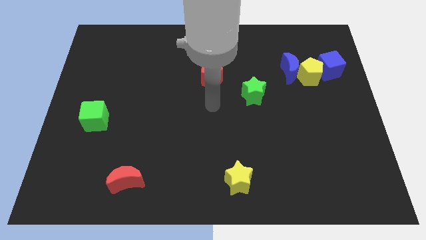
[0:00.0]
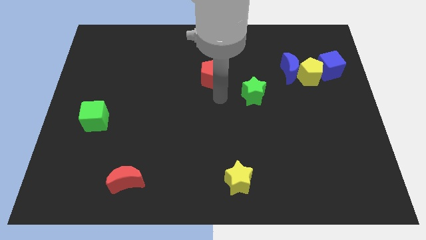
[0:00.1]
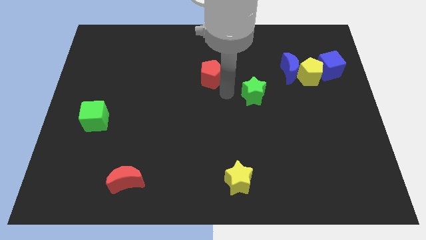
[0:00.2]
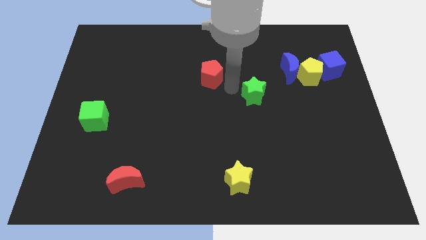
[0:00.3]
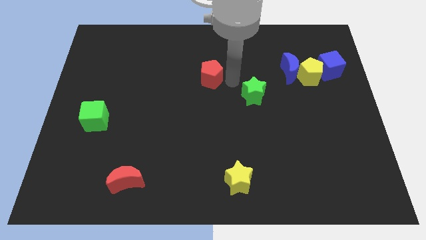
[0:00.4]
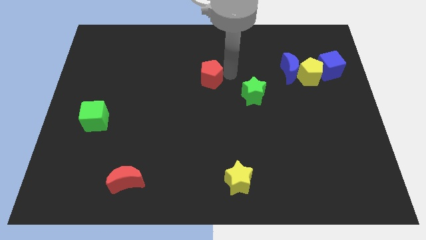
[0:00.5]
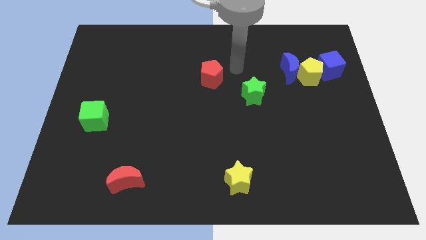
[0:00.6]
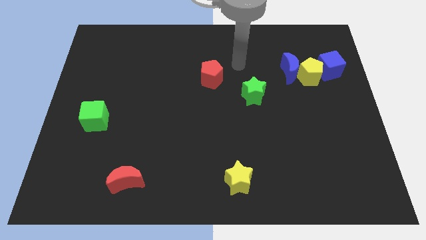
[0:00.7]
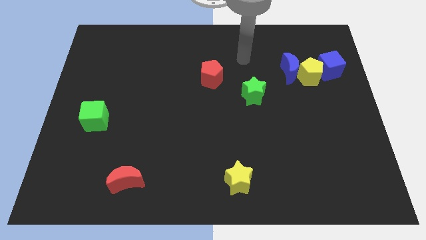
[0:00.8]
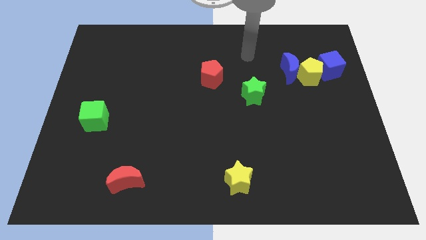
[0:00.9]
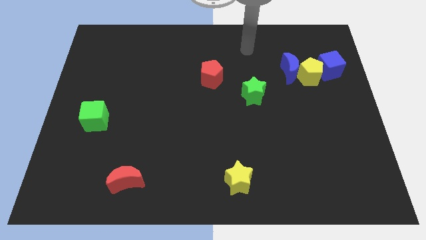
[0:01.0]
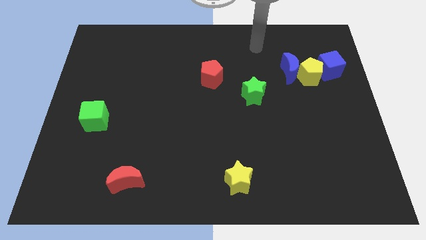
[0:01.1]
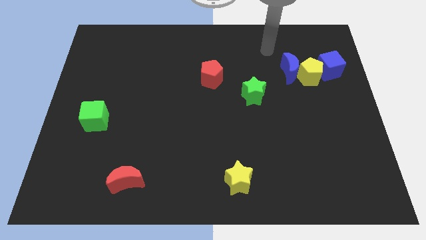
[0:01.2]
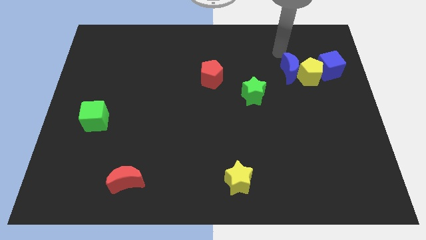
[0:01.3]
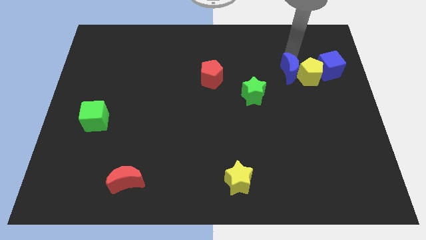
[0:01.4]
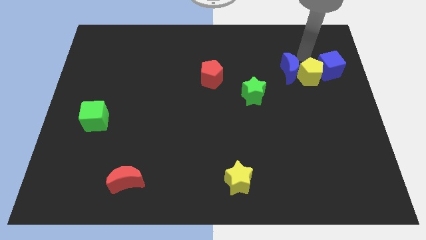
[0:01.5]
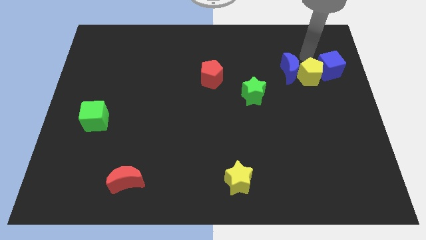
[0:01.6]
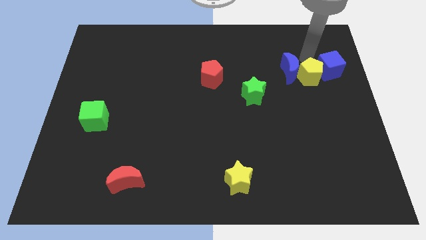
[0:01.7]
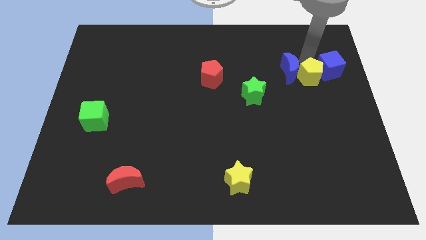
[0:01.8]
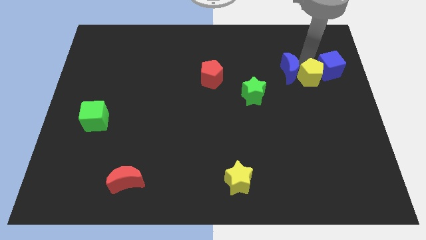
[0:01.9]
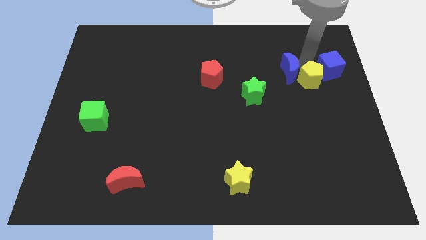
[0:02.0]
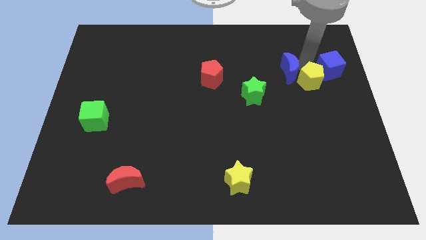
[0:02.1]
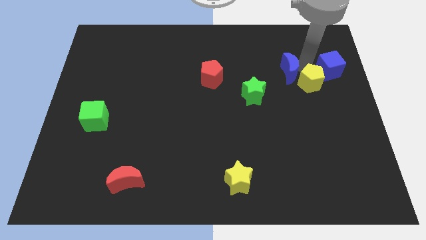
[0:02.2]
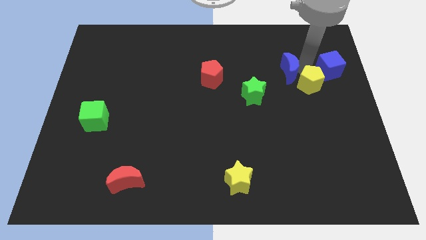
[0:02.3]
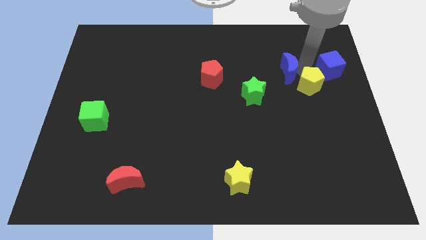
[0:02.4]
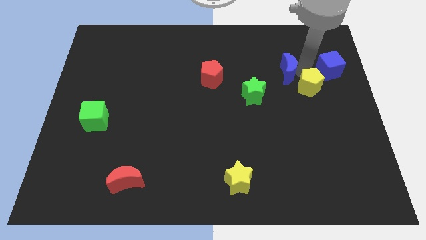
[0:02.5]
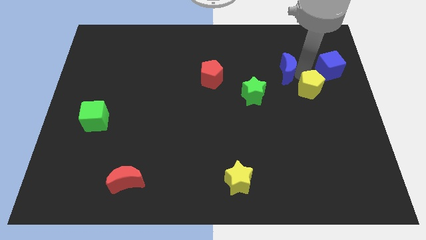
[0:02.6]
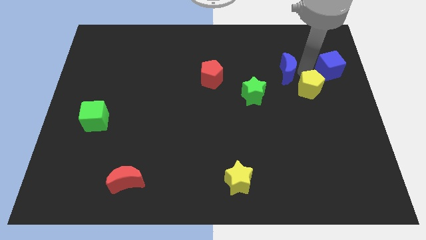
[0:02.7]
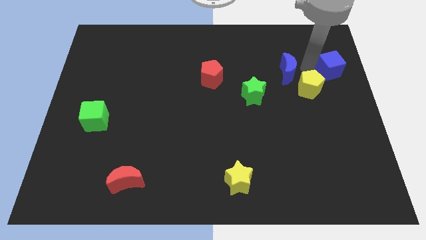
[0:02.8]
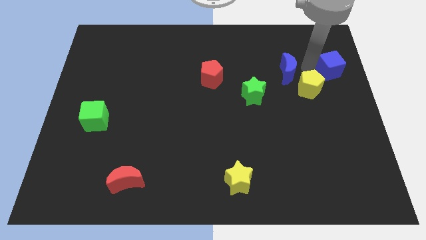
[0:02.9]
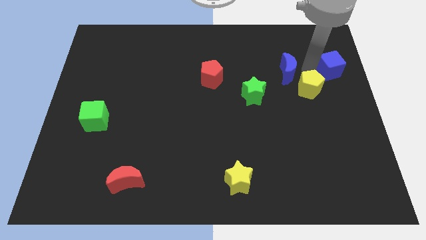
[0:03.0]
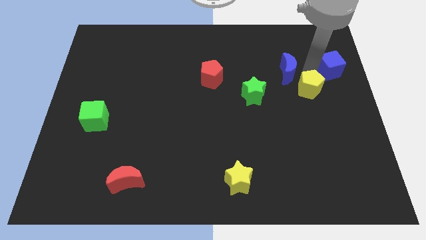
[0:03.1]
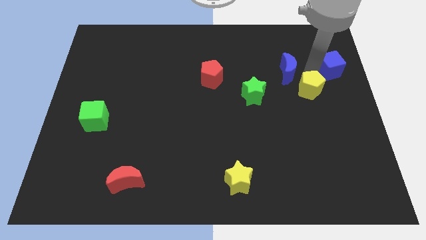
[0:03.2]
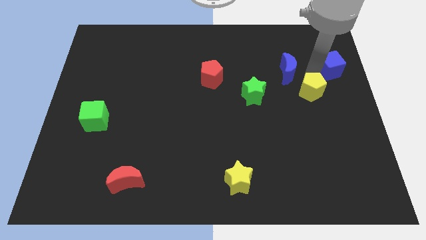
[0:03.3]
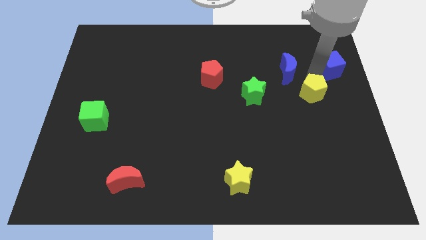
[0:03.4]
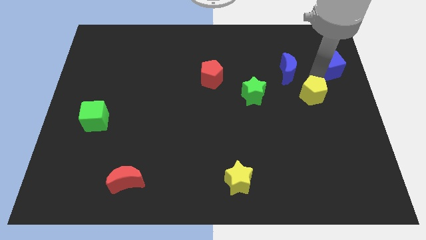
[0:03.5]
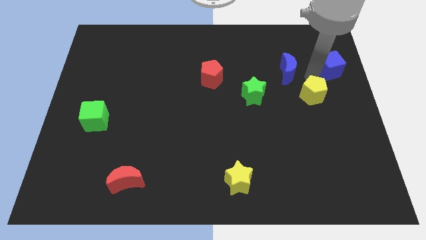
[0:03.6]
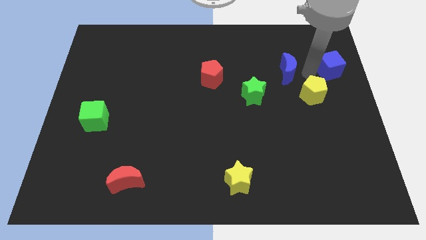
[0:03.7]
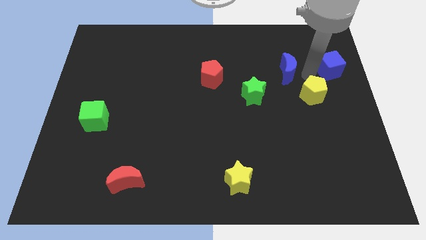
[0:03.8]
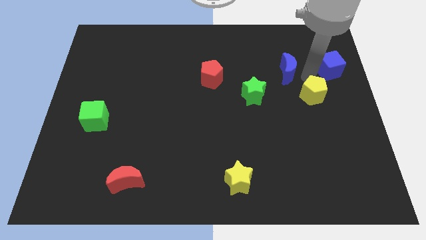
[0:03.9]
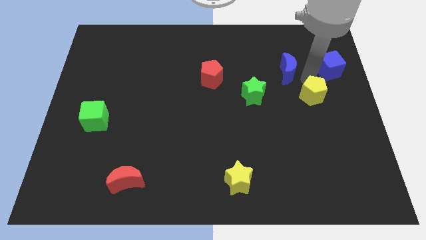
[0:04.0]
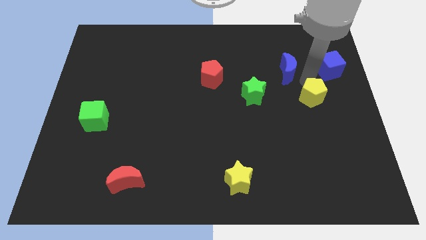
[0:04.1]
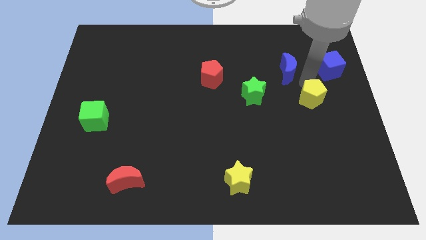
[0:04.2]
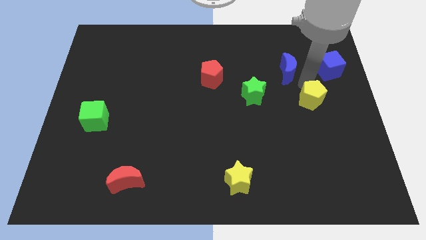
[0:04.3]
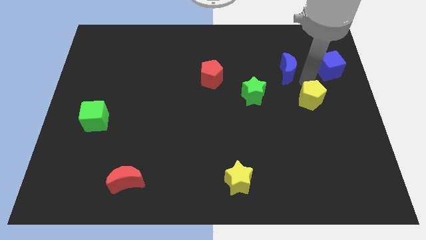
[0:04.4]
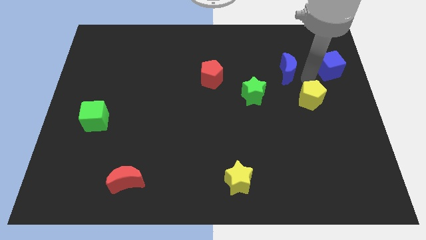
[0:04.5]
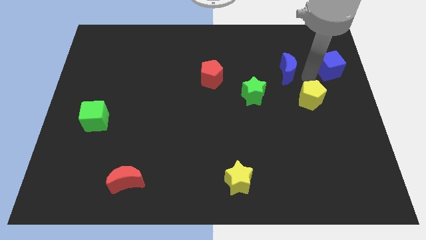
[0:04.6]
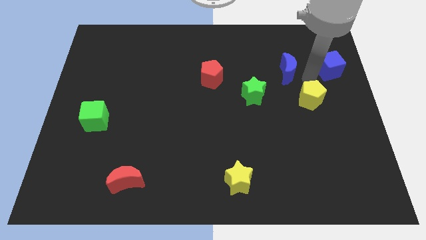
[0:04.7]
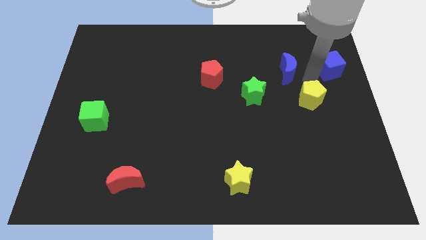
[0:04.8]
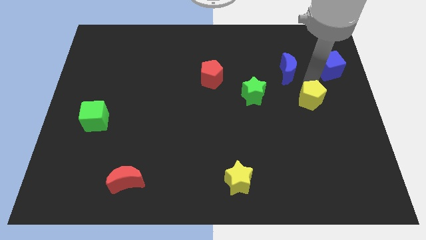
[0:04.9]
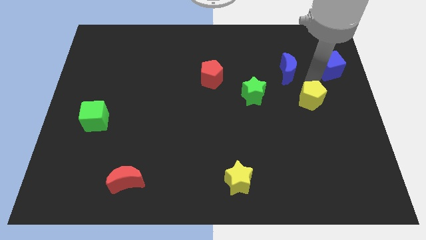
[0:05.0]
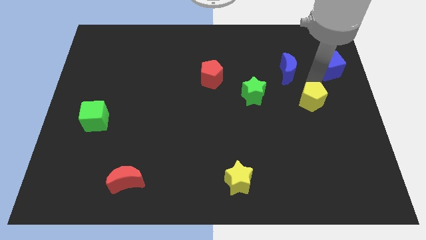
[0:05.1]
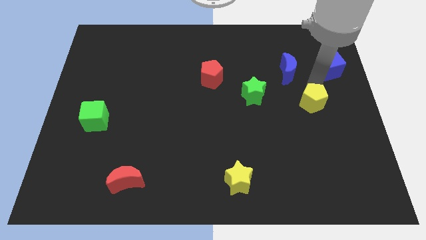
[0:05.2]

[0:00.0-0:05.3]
pull the yellow pentagon apart from the blue moon and blue cube

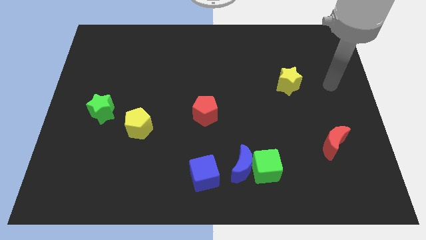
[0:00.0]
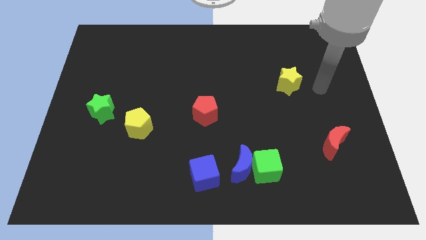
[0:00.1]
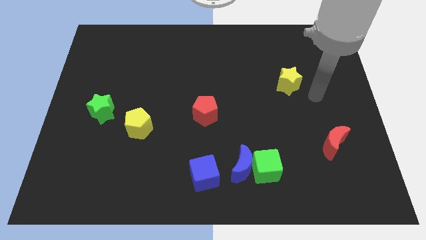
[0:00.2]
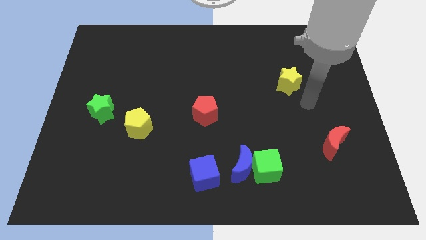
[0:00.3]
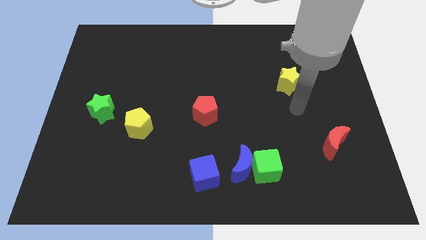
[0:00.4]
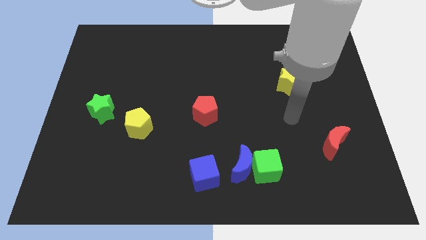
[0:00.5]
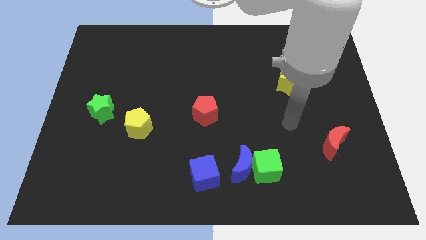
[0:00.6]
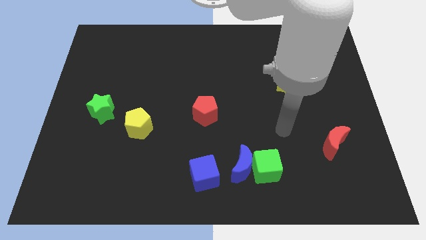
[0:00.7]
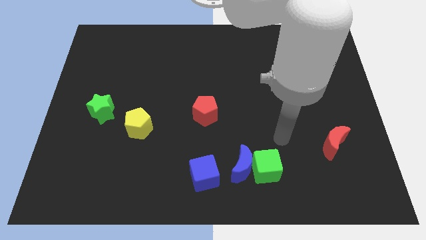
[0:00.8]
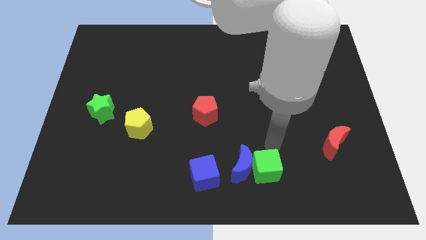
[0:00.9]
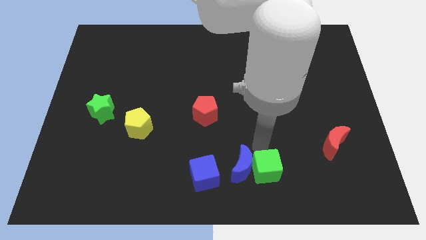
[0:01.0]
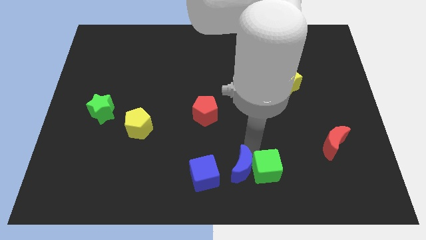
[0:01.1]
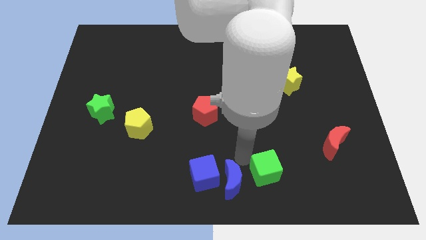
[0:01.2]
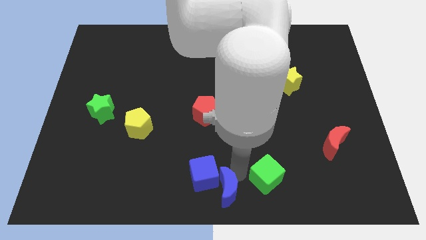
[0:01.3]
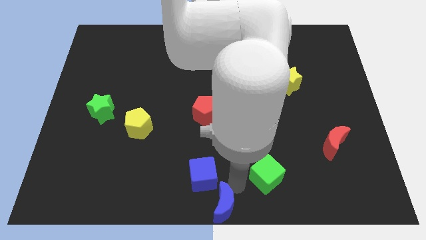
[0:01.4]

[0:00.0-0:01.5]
pull the green cube apart from the blue moon

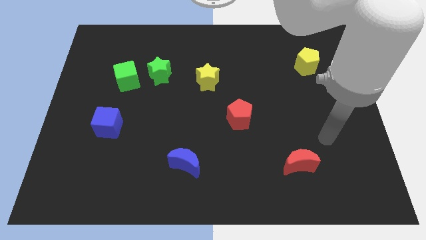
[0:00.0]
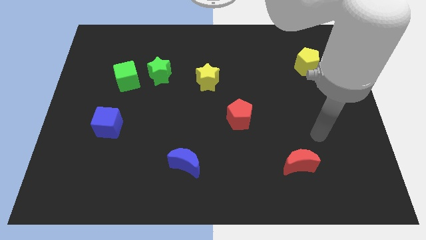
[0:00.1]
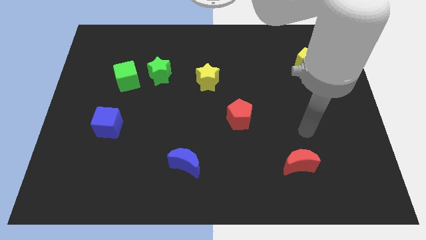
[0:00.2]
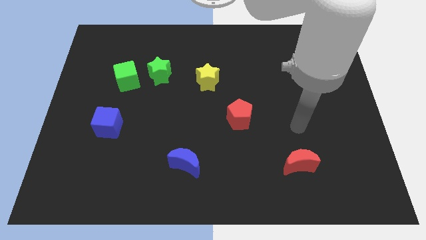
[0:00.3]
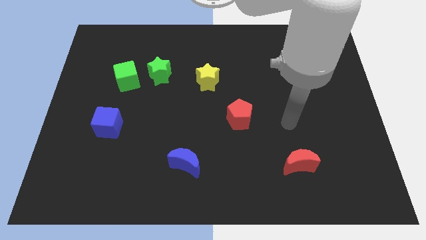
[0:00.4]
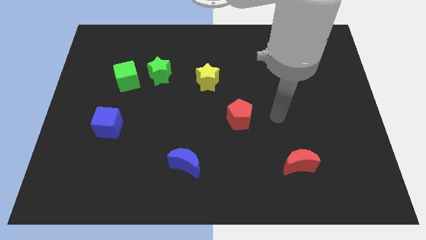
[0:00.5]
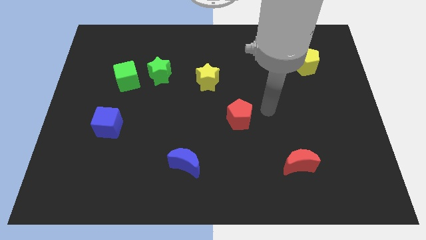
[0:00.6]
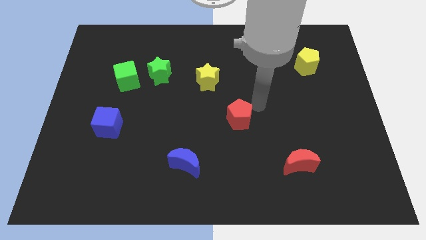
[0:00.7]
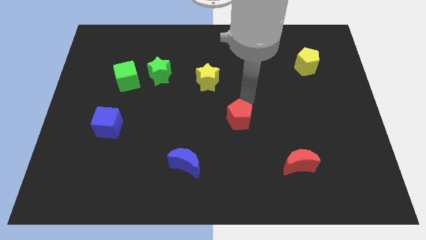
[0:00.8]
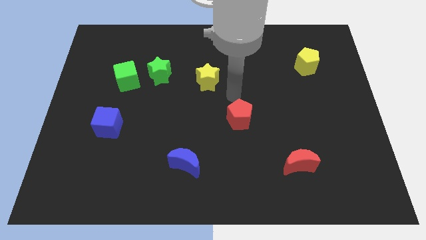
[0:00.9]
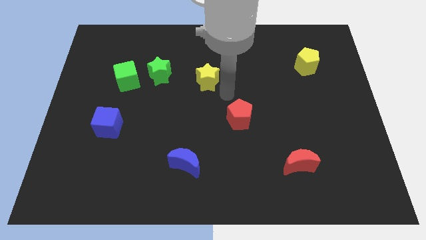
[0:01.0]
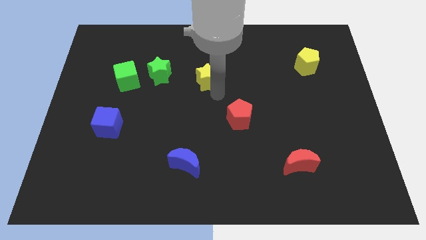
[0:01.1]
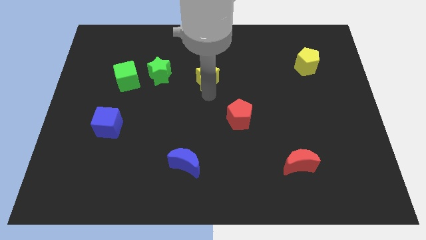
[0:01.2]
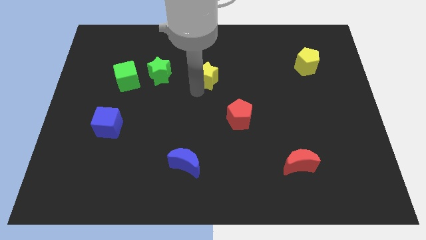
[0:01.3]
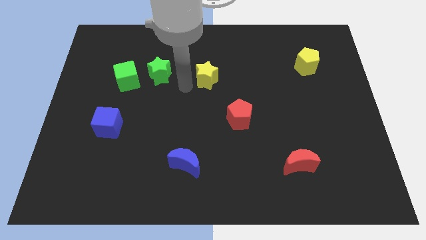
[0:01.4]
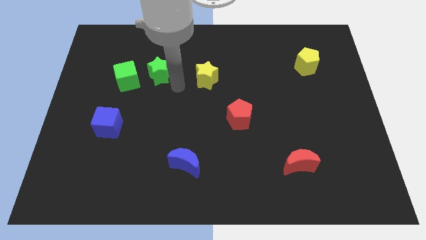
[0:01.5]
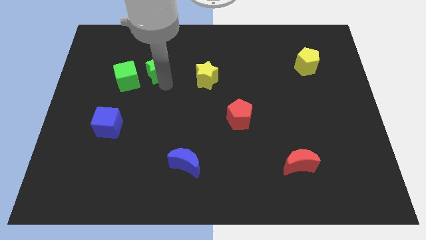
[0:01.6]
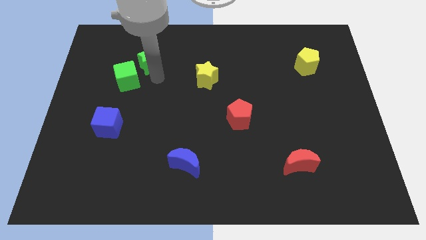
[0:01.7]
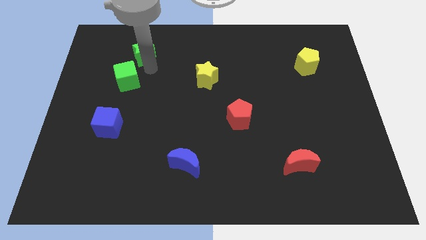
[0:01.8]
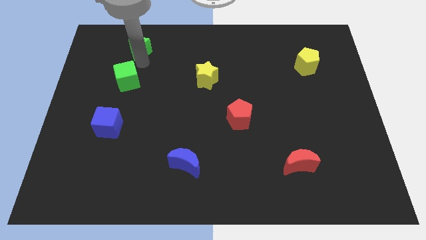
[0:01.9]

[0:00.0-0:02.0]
pull the green cube apart from the green star

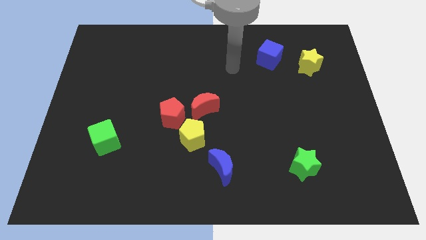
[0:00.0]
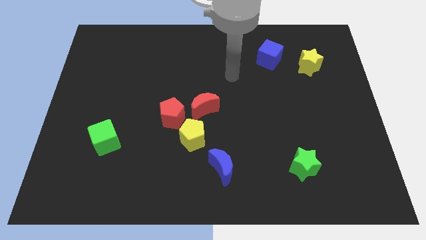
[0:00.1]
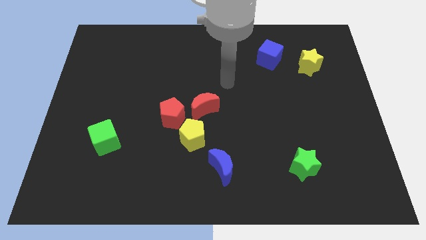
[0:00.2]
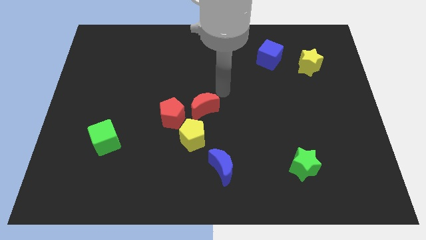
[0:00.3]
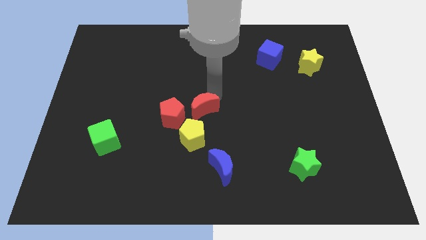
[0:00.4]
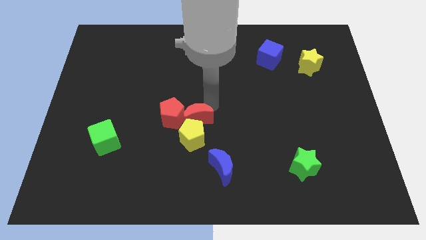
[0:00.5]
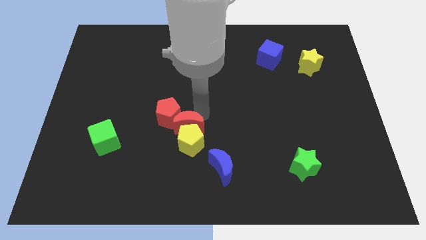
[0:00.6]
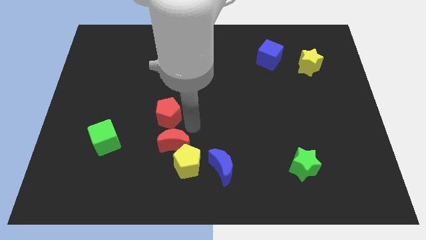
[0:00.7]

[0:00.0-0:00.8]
separate the red pentagon from the red moon and yellow pentagon
